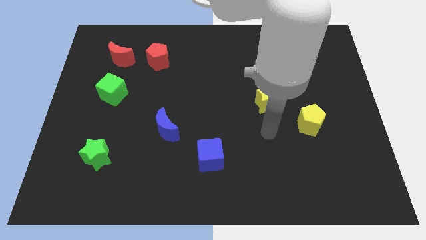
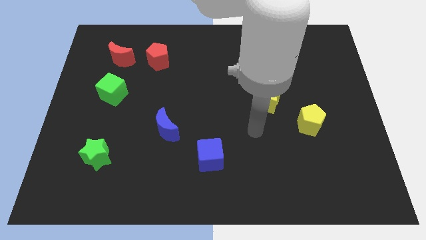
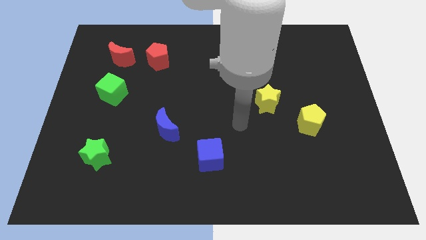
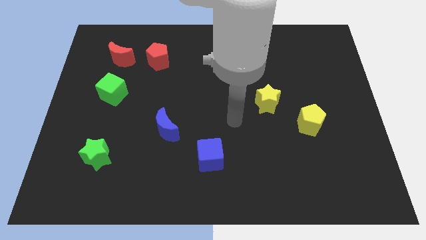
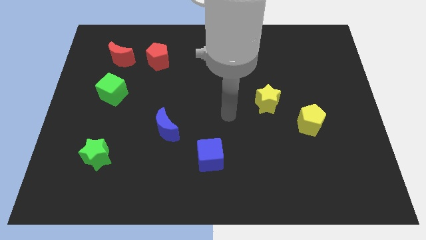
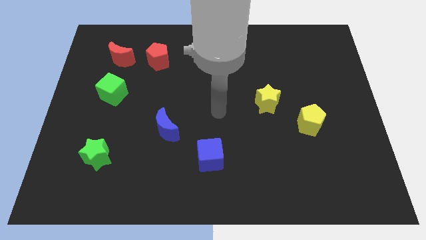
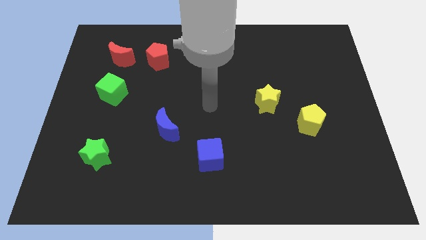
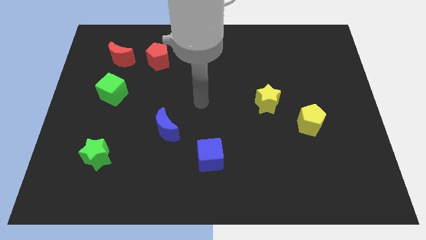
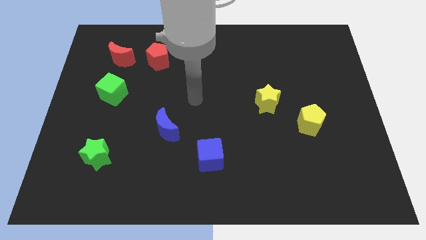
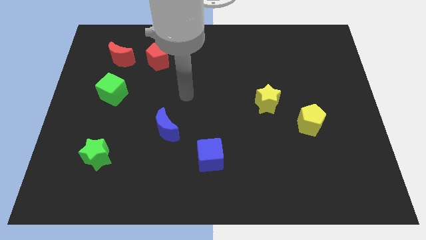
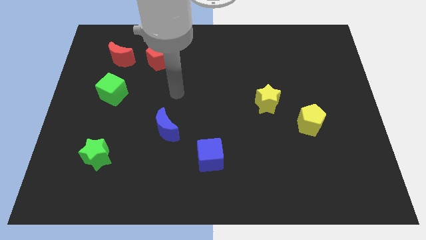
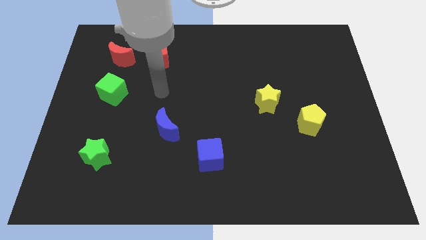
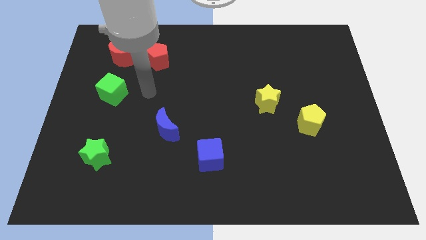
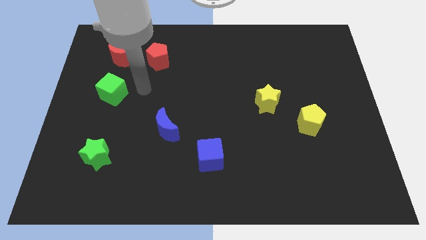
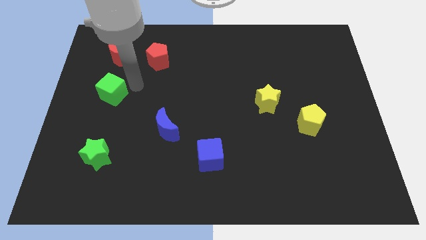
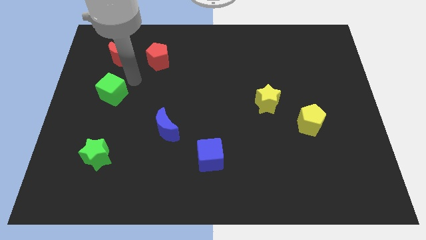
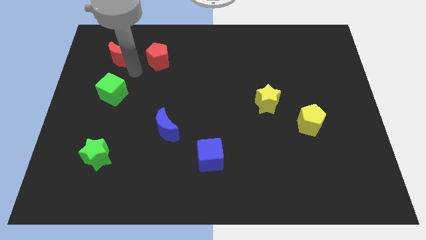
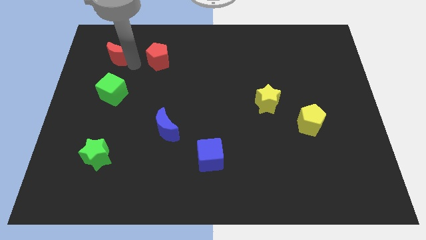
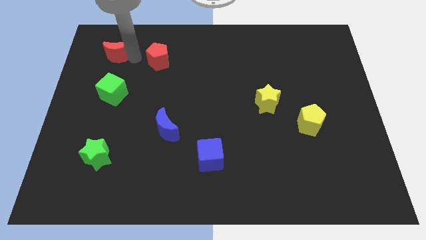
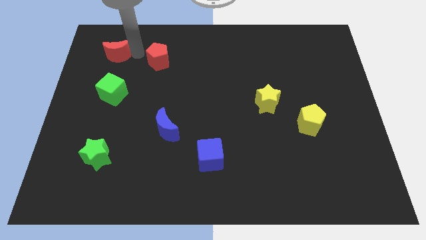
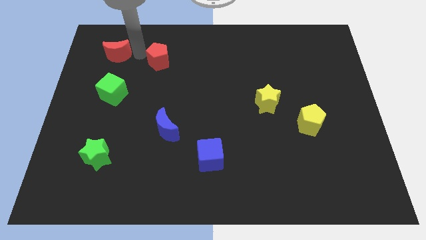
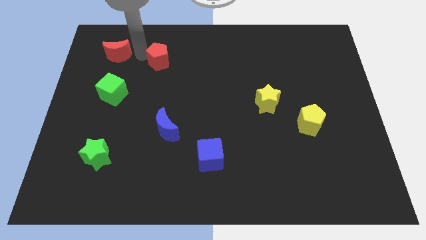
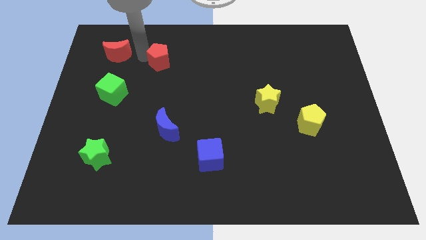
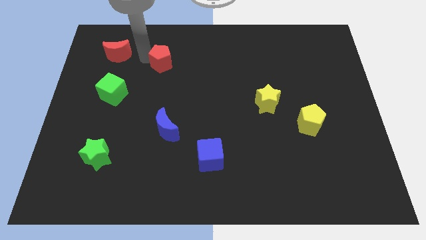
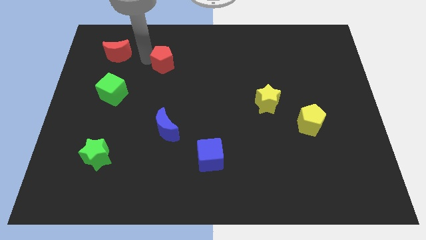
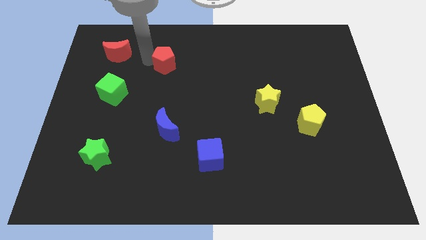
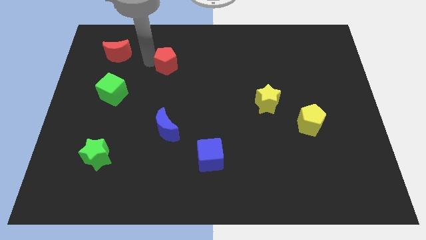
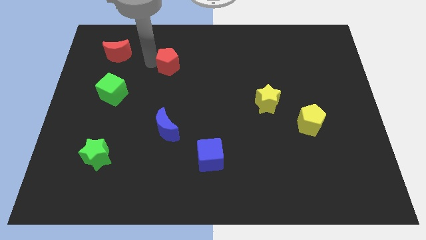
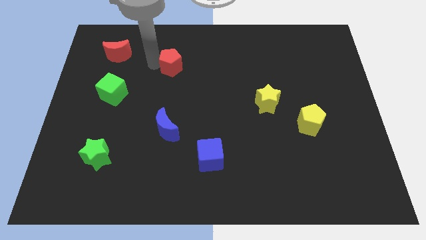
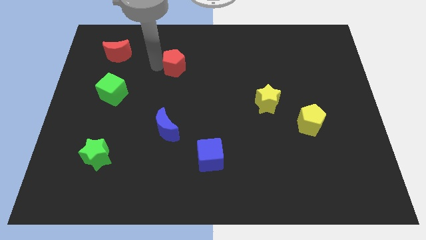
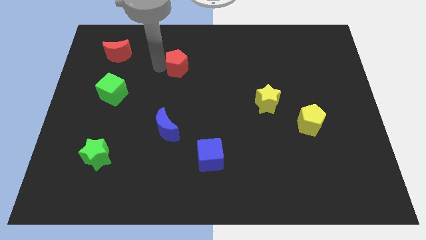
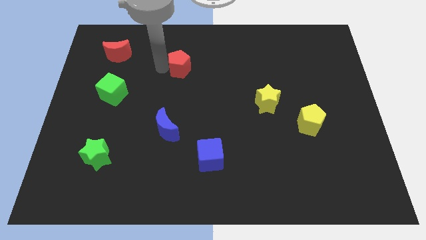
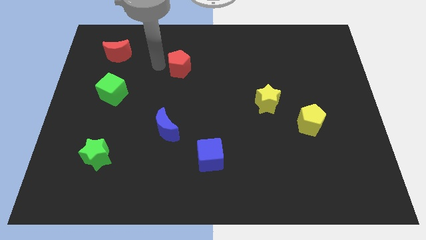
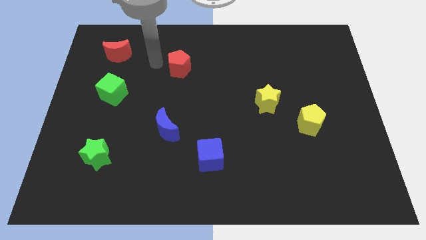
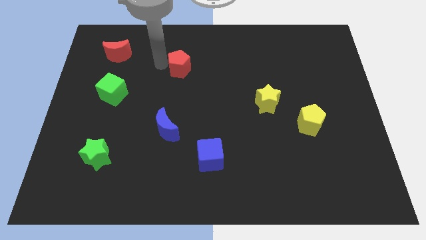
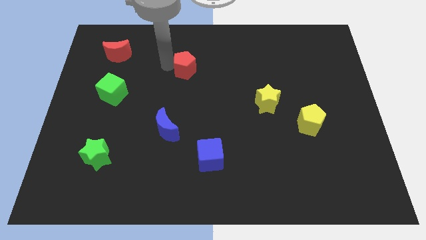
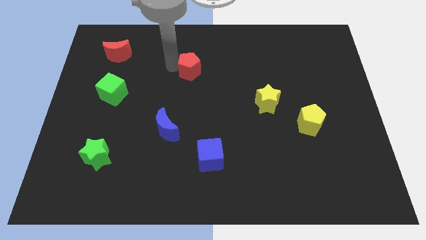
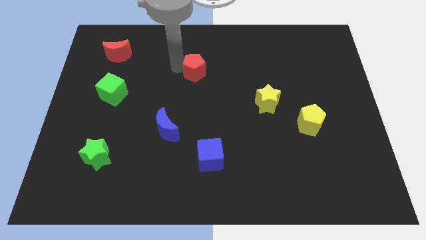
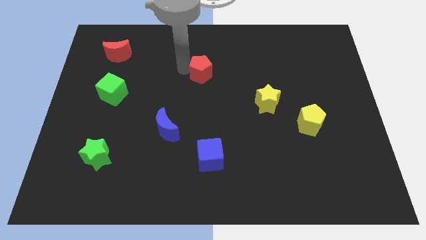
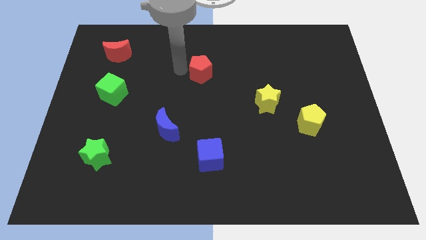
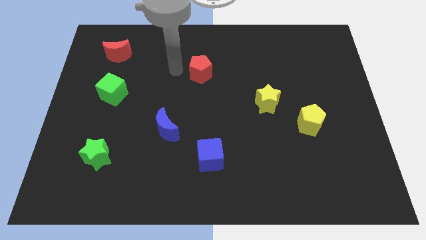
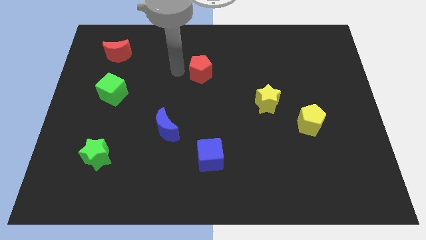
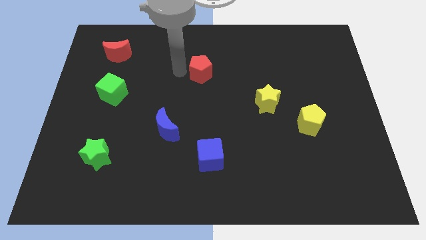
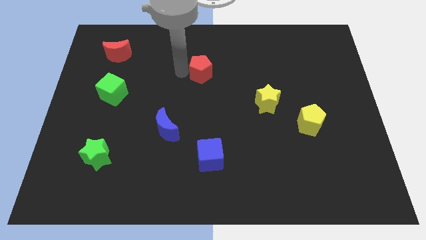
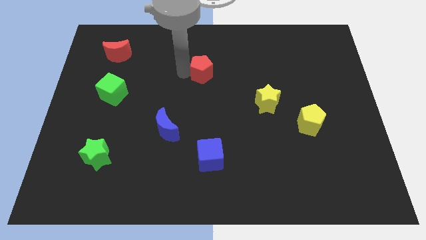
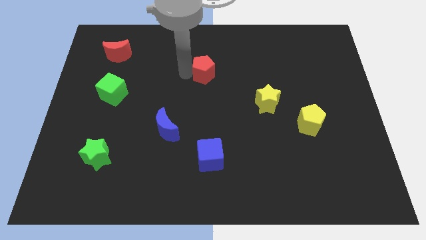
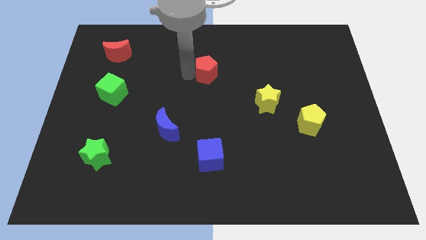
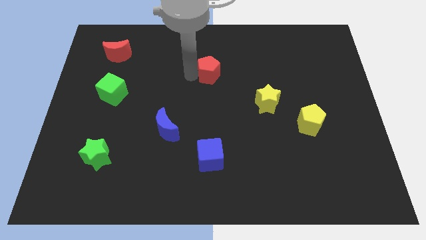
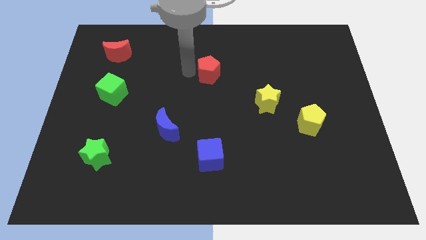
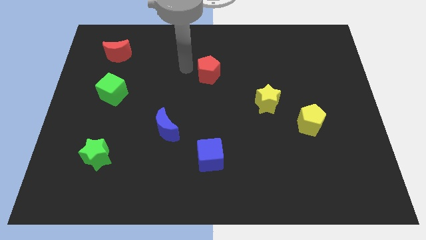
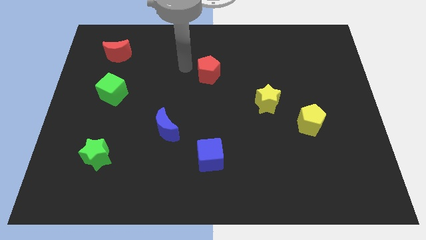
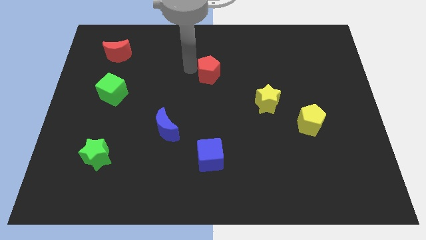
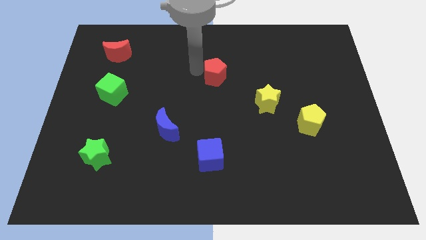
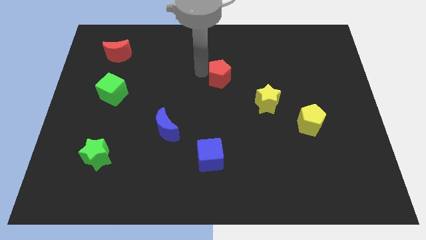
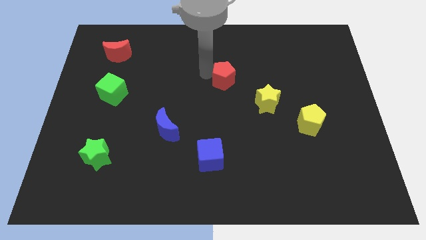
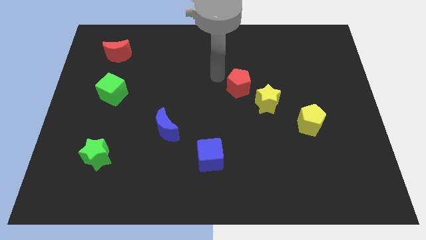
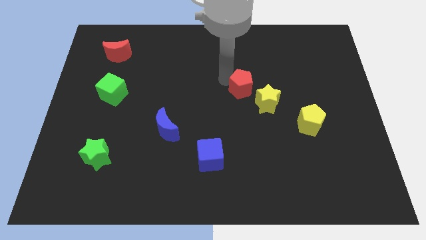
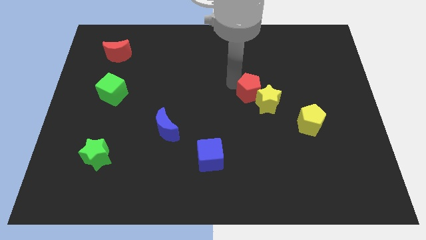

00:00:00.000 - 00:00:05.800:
push the red pentagon towards the yellow star

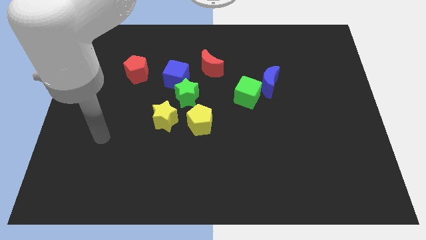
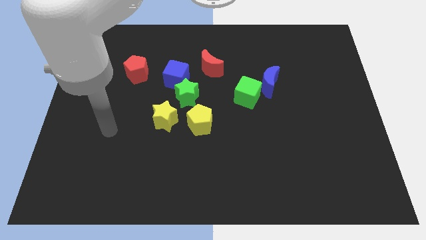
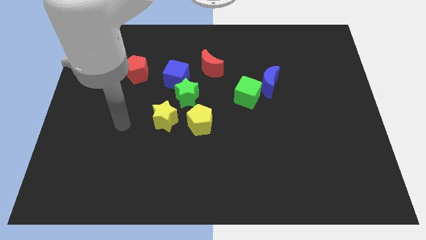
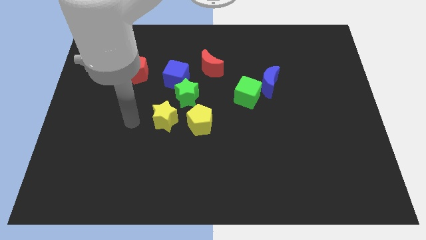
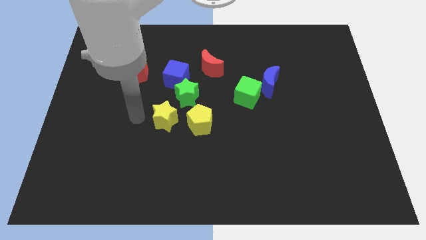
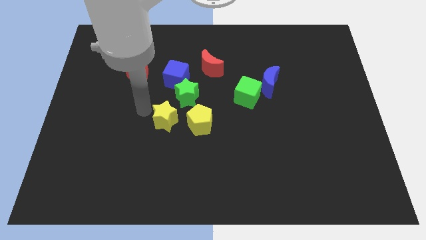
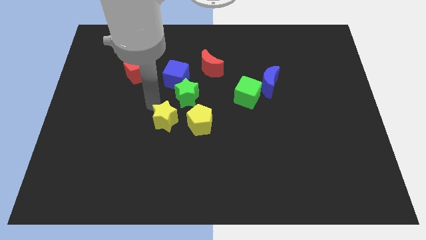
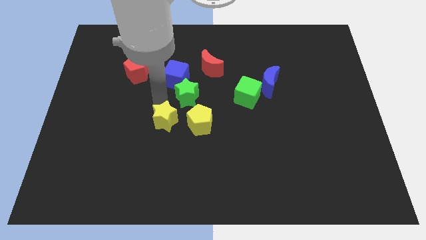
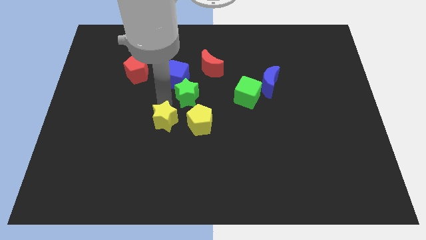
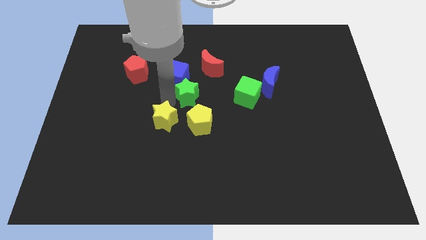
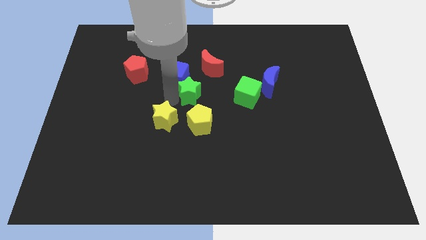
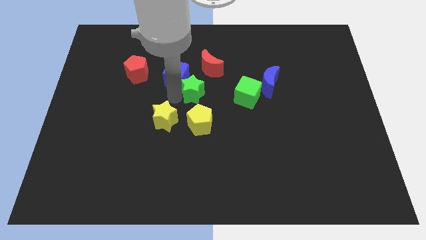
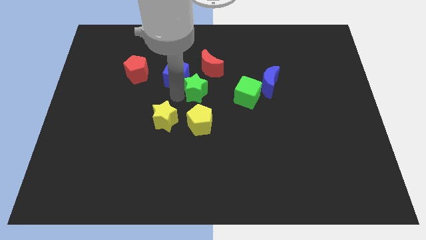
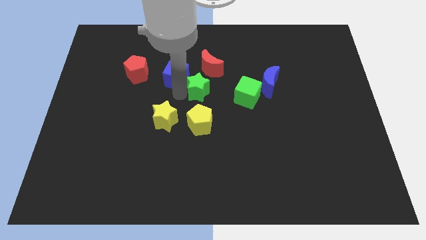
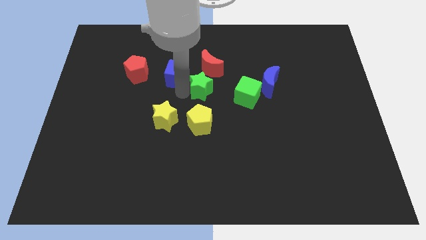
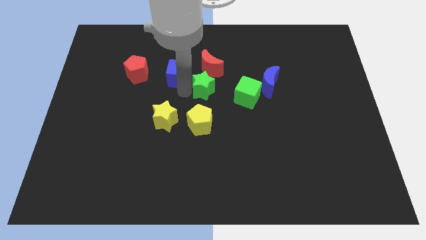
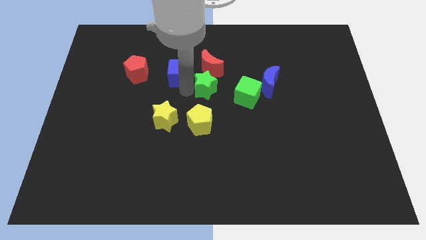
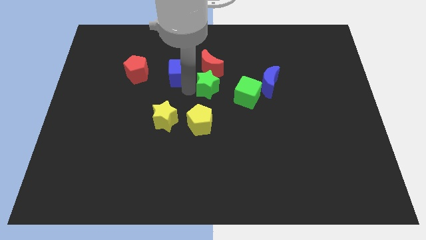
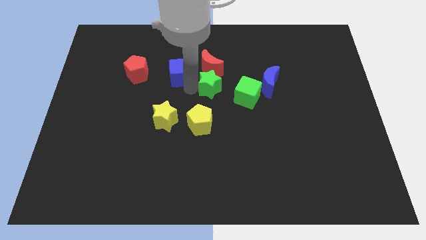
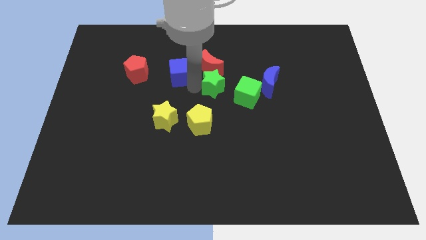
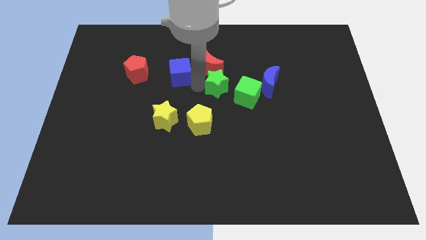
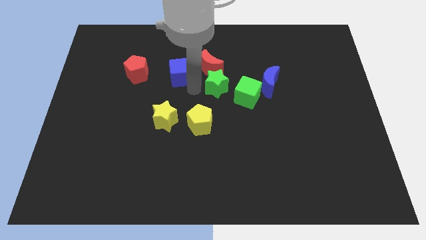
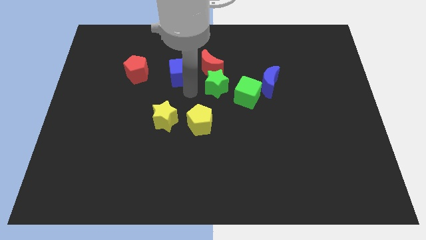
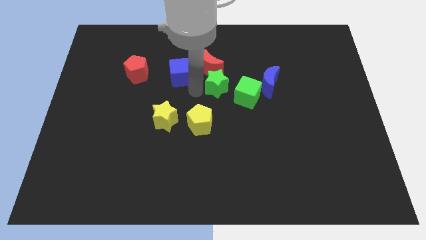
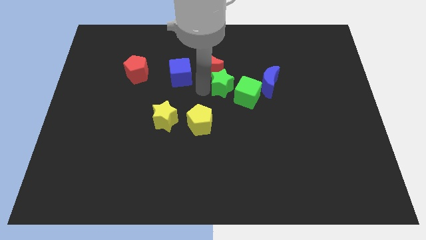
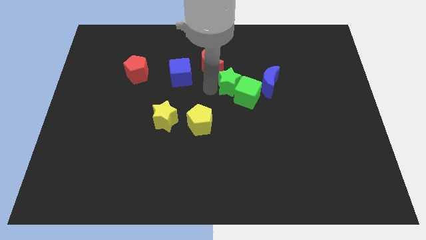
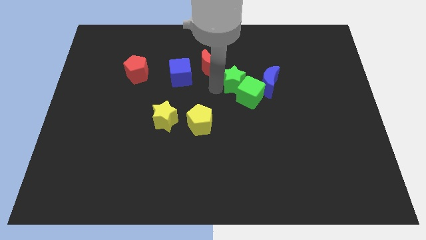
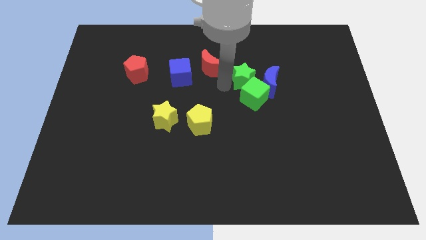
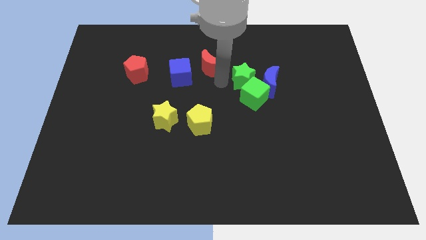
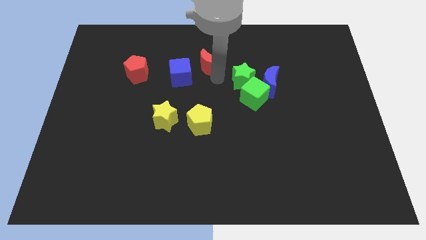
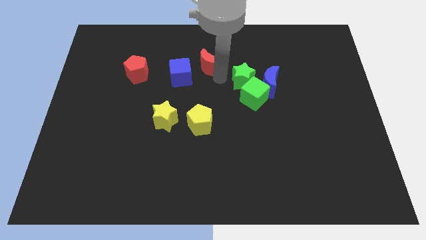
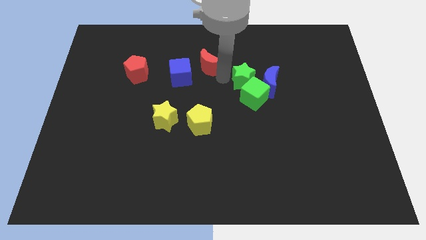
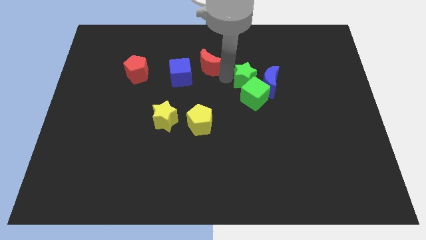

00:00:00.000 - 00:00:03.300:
push the green star to the blue moon
